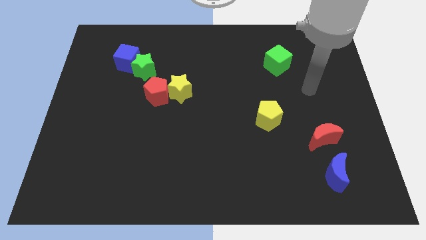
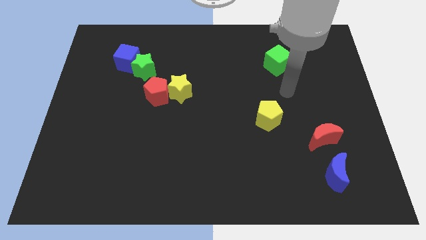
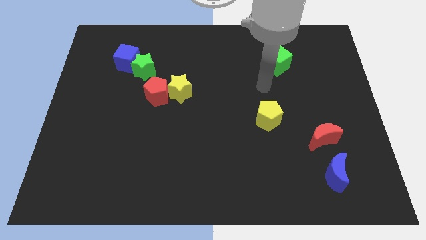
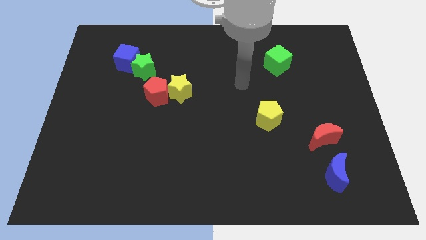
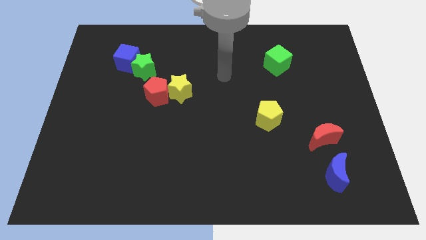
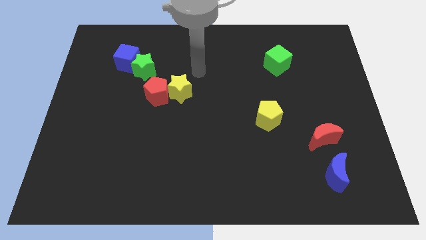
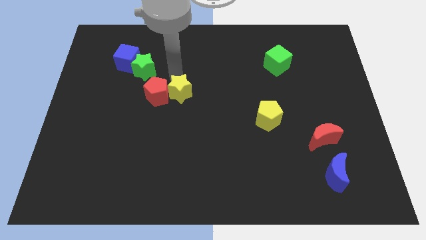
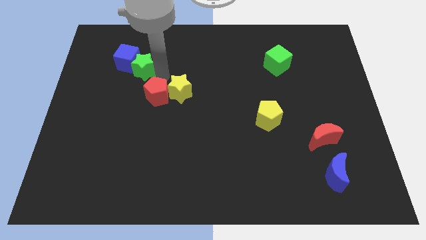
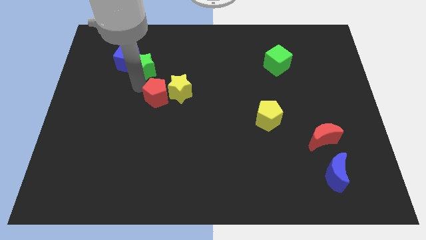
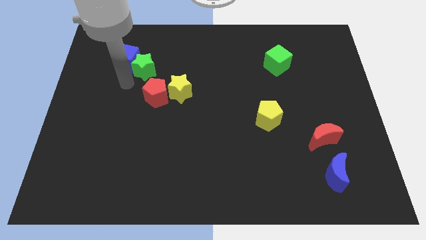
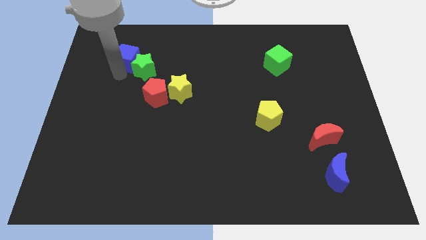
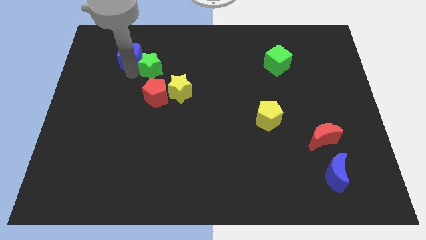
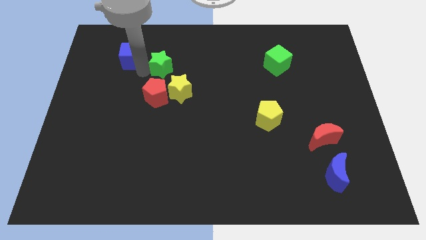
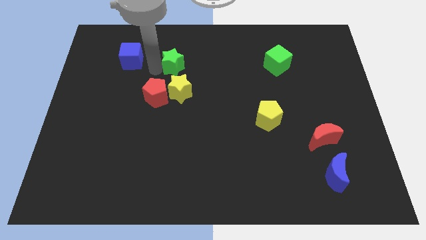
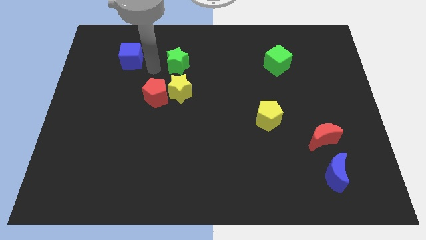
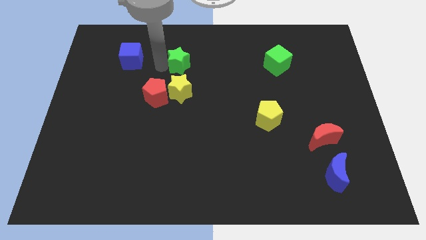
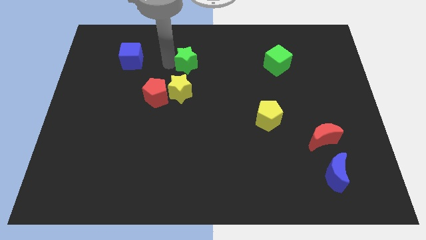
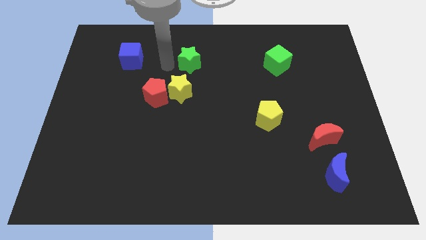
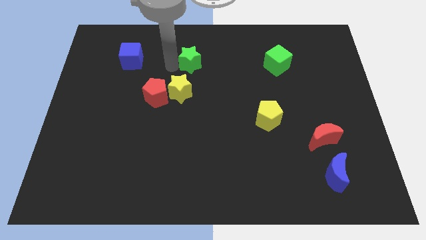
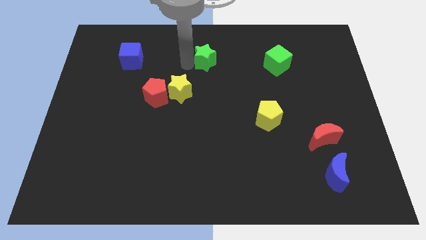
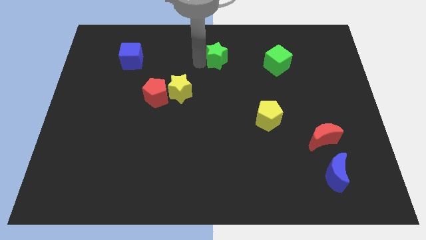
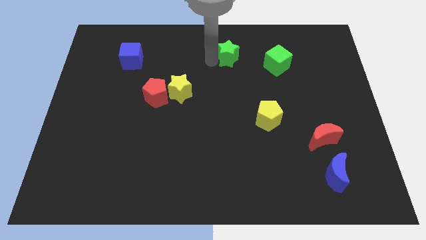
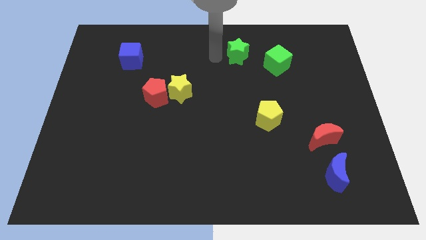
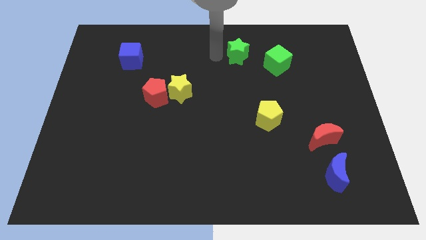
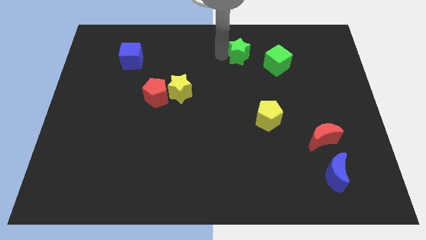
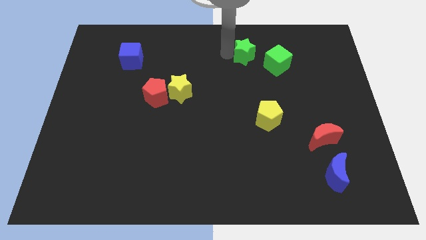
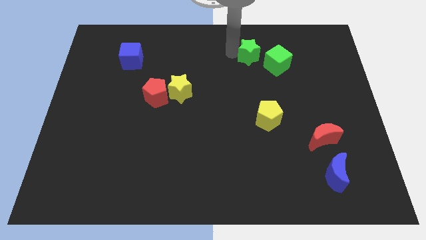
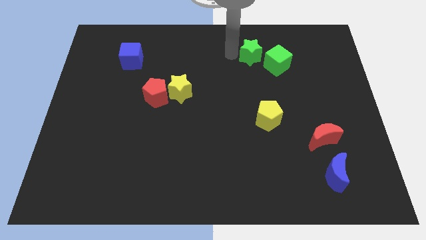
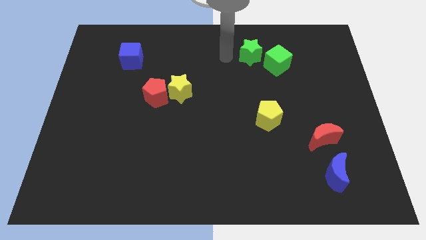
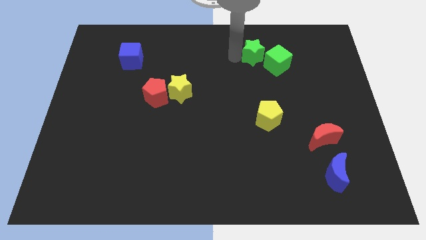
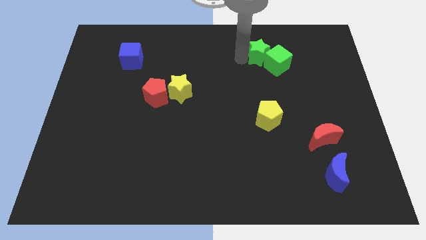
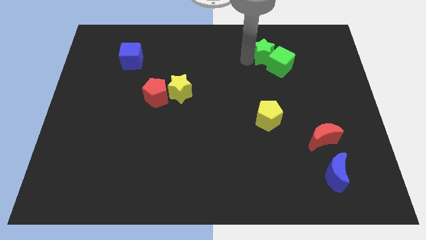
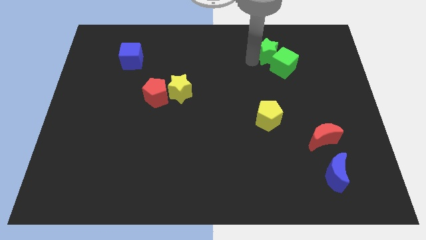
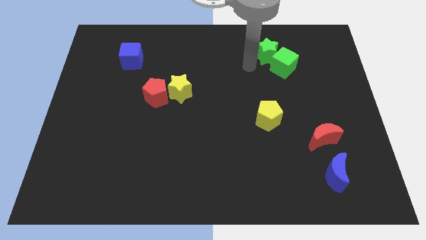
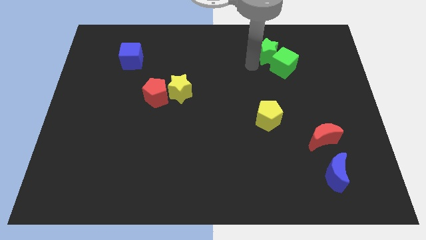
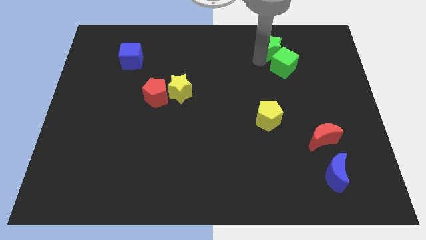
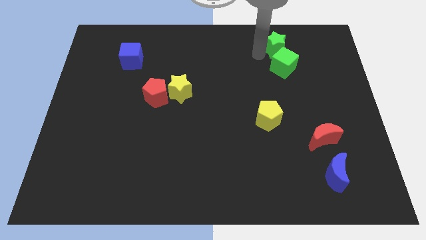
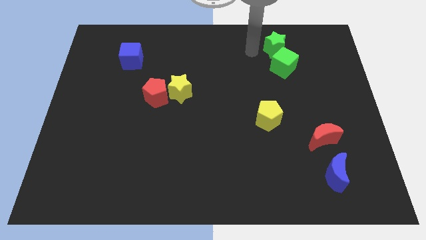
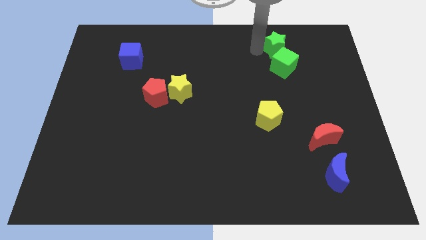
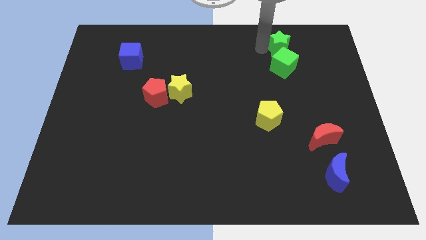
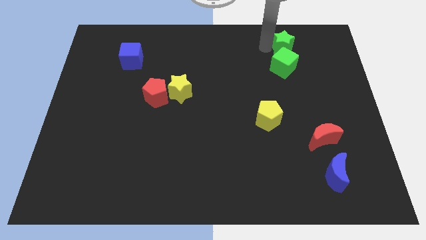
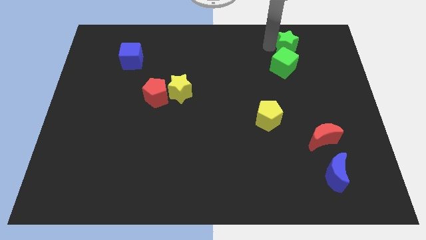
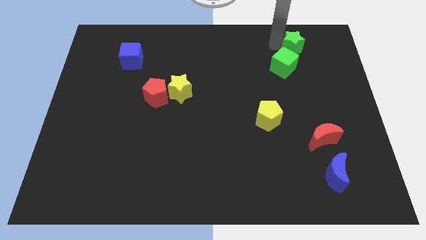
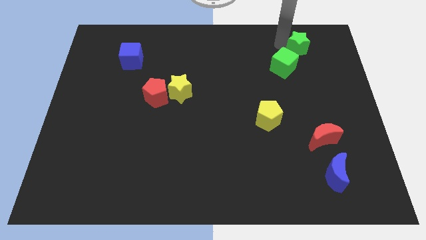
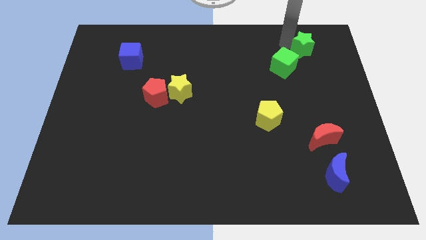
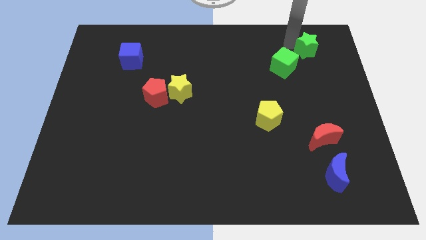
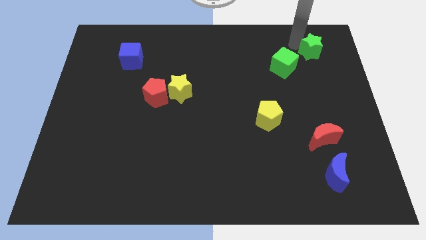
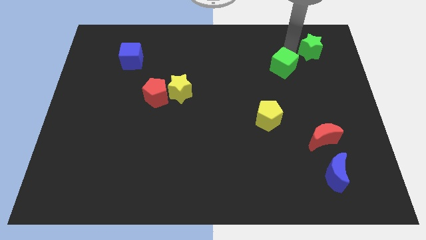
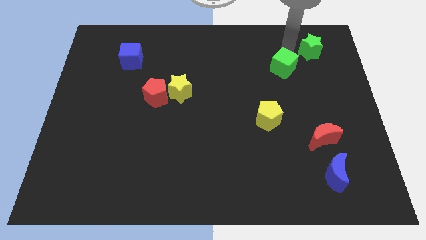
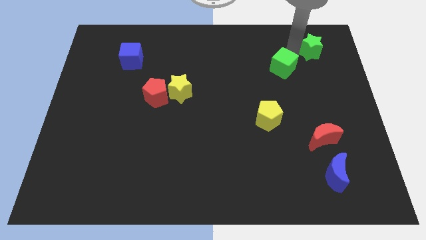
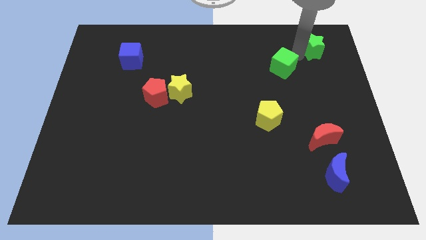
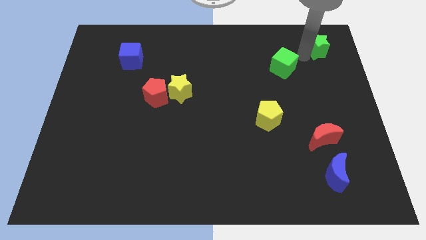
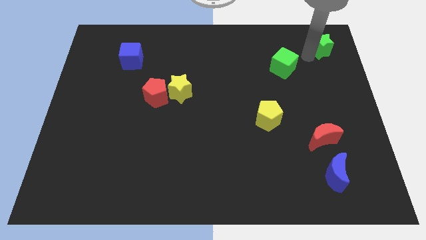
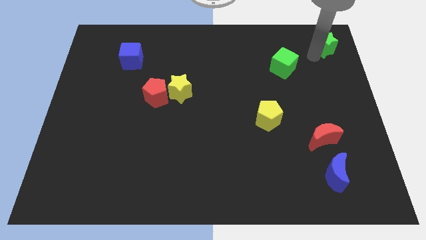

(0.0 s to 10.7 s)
put the green star to the upper right corner

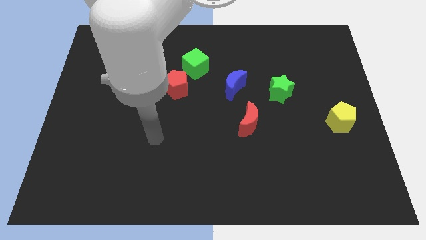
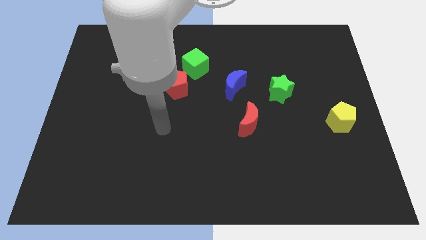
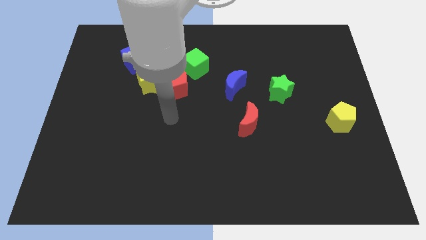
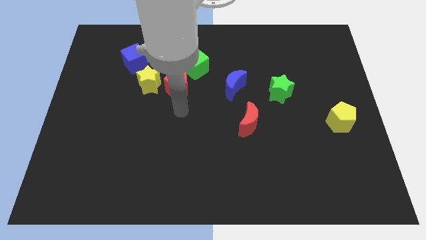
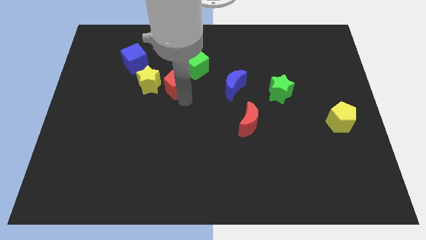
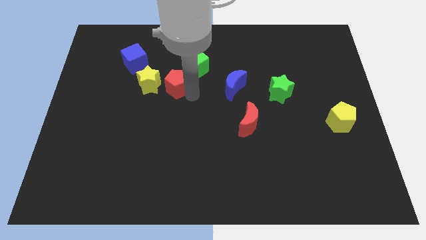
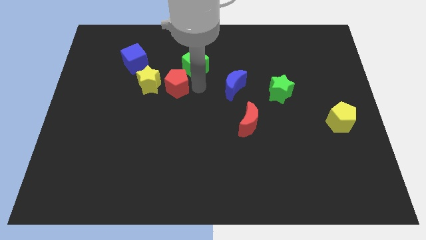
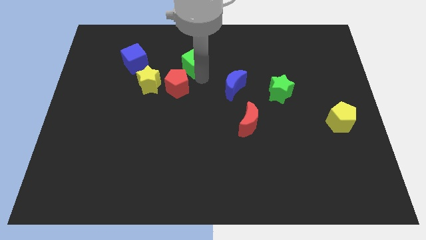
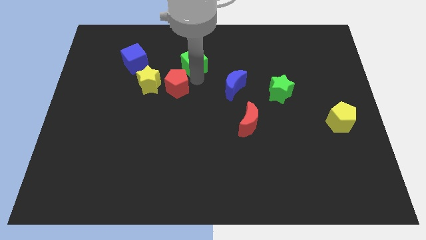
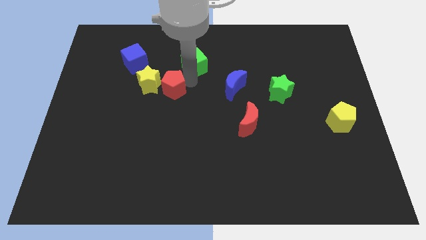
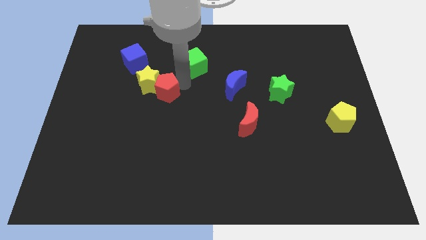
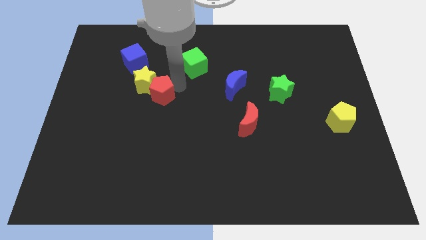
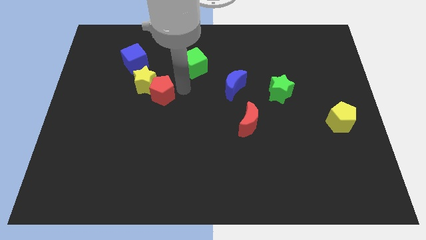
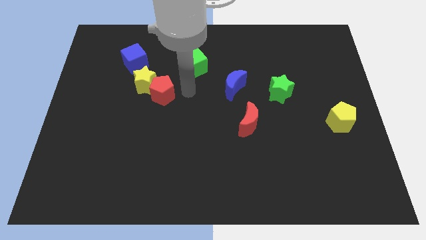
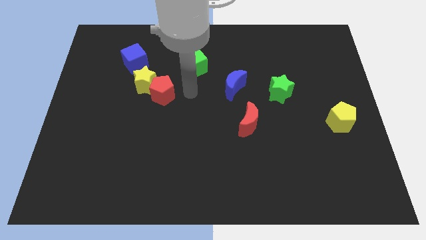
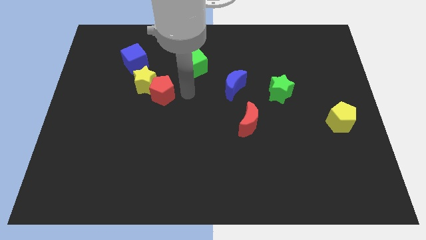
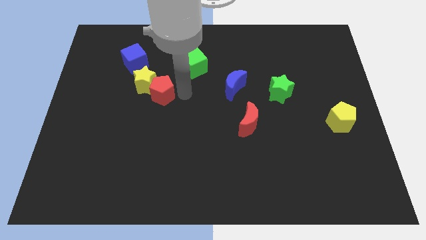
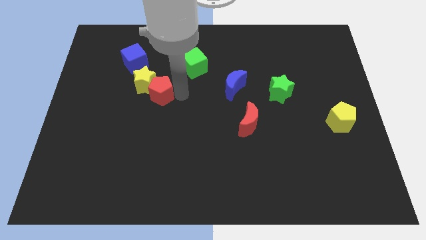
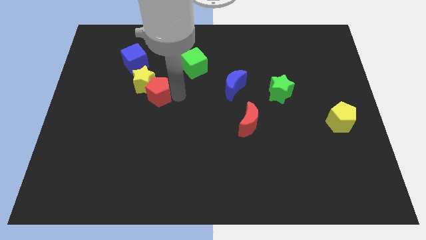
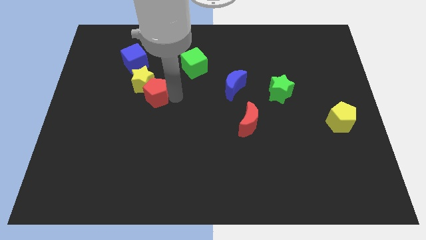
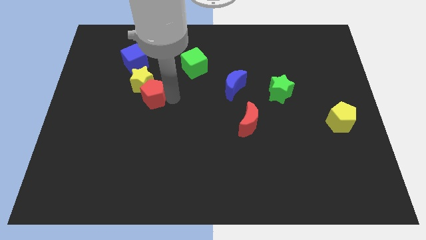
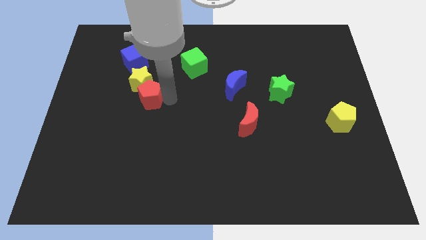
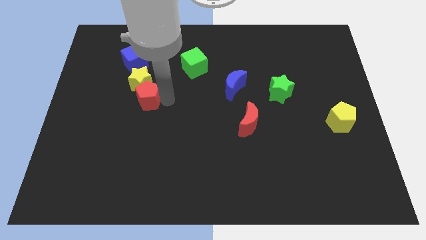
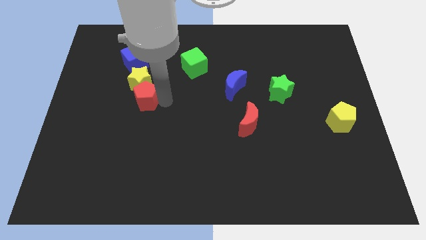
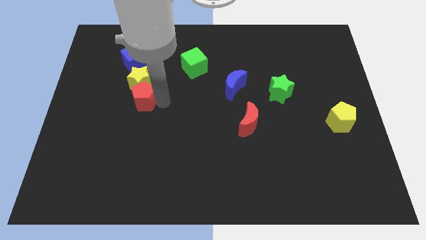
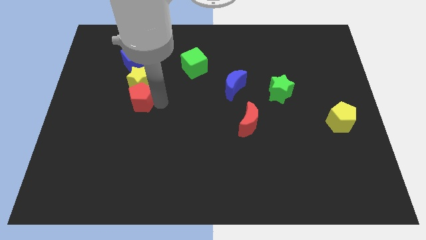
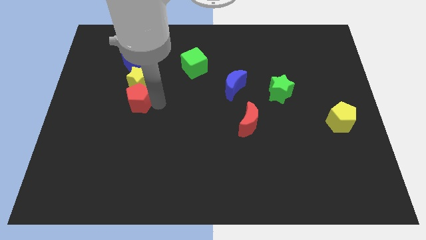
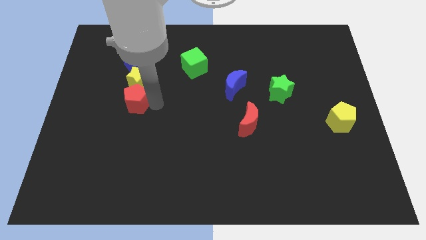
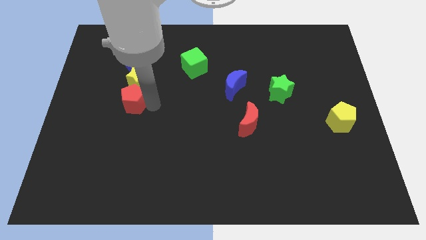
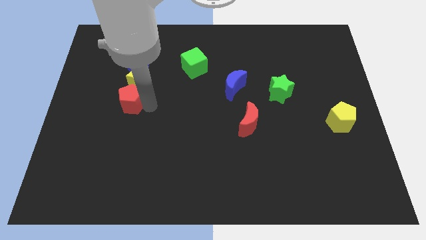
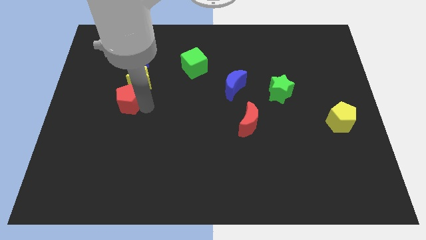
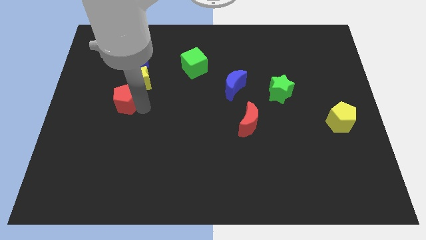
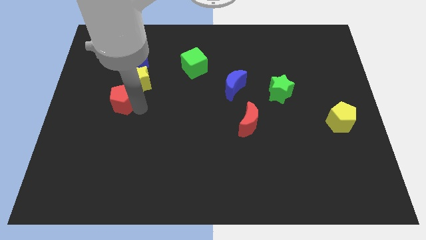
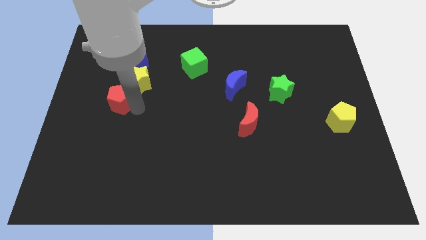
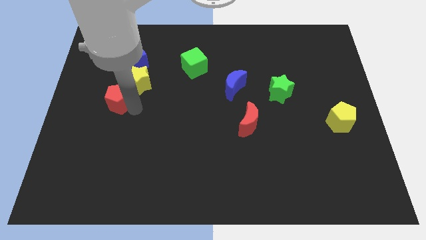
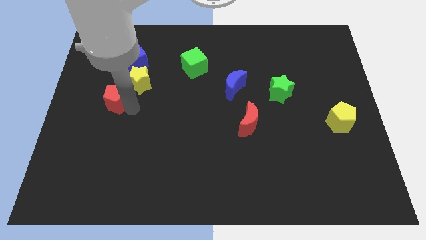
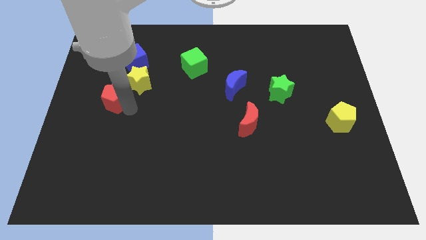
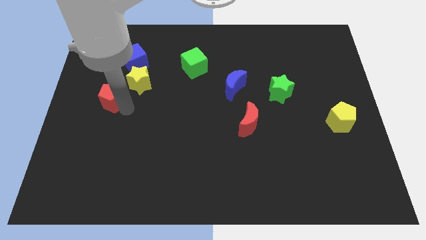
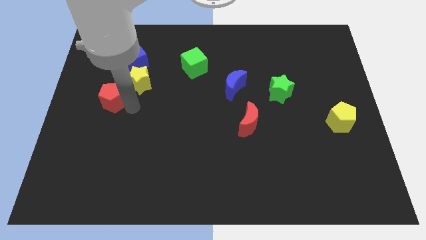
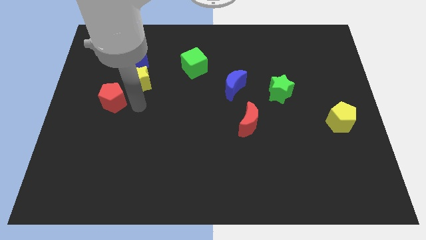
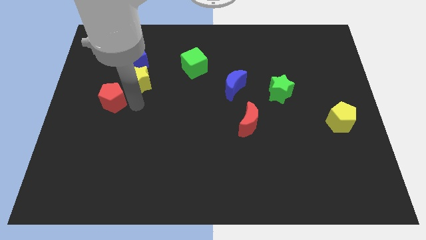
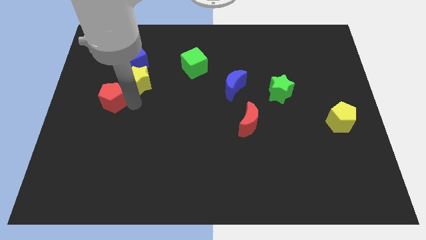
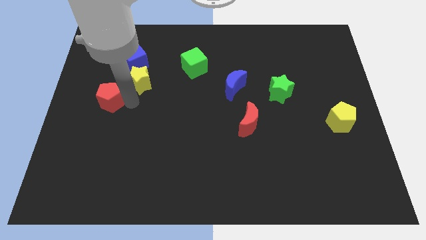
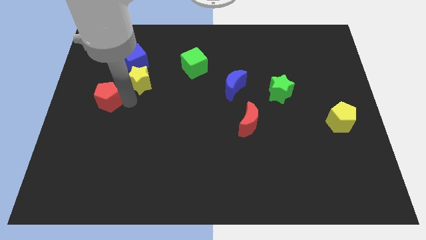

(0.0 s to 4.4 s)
slide the red pentagon to the left side of the board
